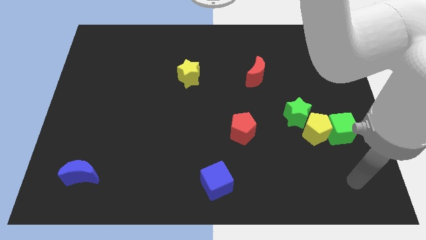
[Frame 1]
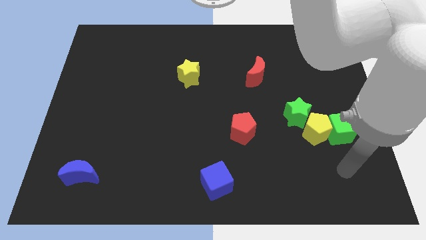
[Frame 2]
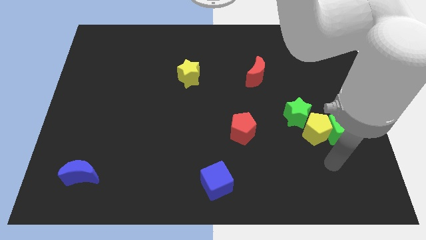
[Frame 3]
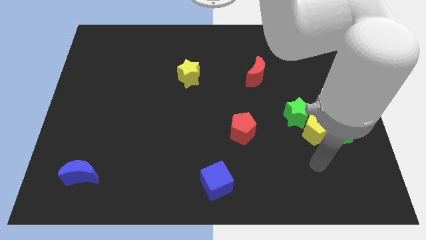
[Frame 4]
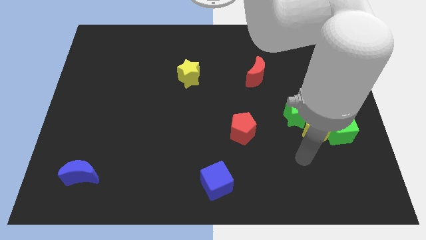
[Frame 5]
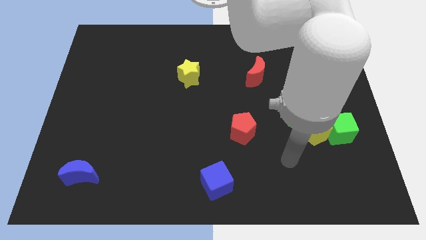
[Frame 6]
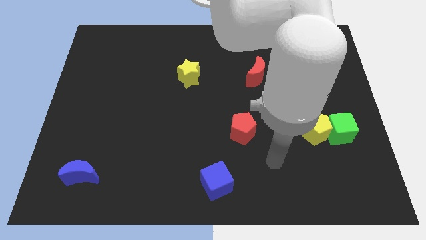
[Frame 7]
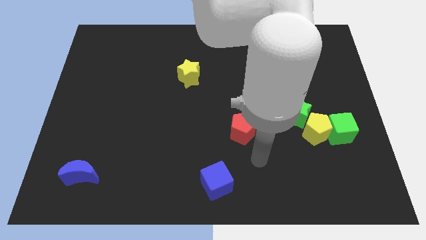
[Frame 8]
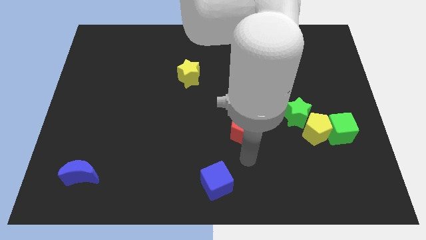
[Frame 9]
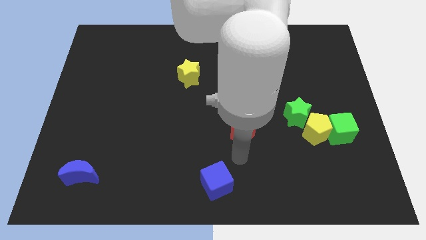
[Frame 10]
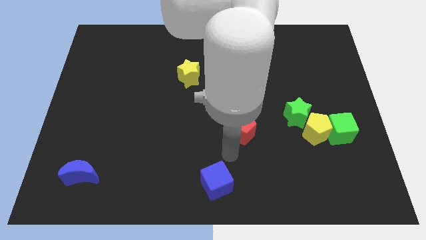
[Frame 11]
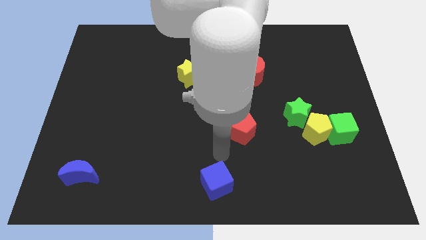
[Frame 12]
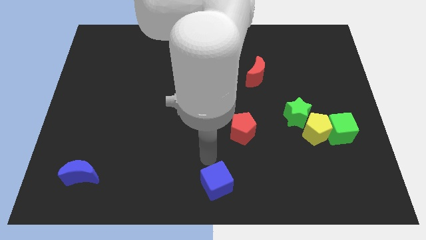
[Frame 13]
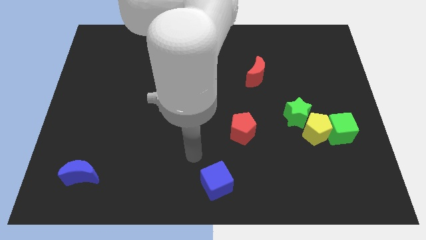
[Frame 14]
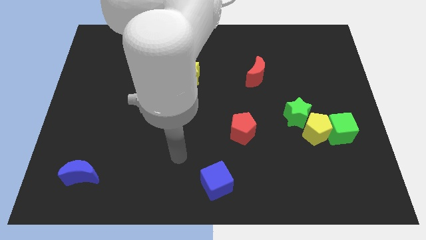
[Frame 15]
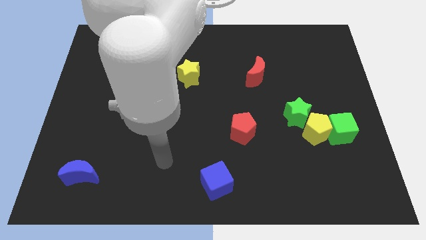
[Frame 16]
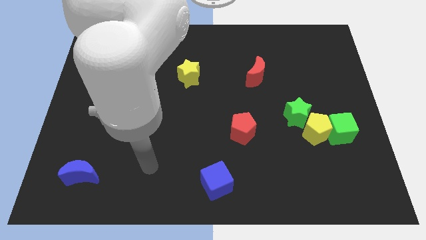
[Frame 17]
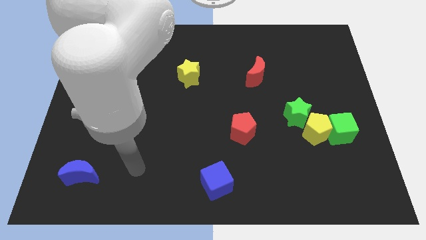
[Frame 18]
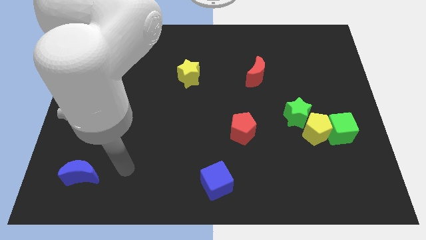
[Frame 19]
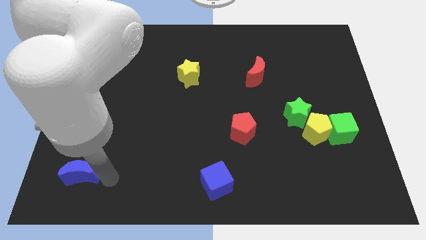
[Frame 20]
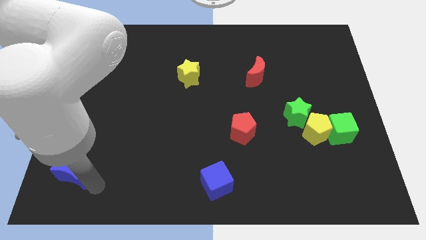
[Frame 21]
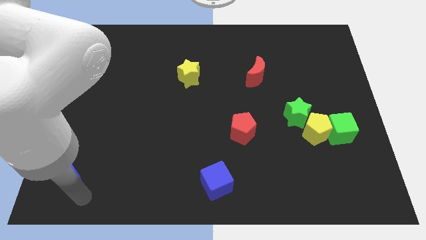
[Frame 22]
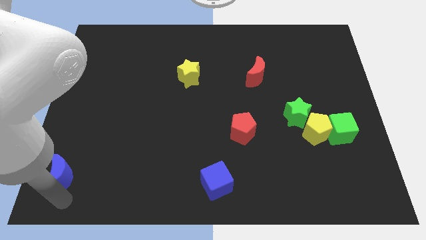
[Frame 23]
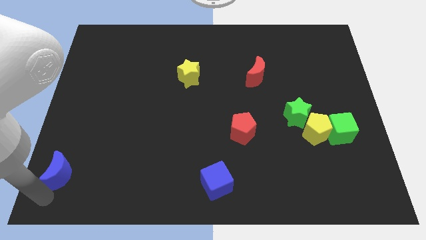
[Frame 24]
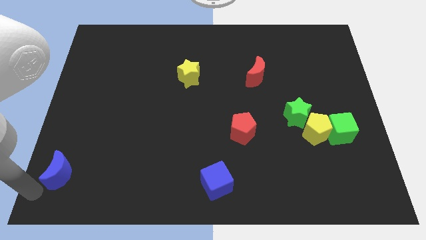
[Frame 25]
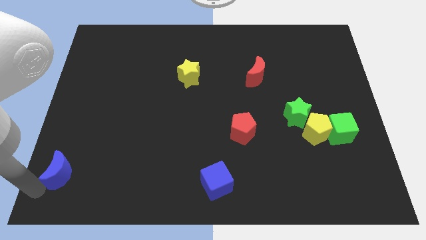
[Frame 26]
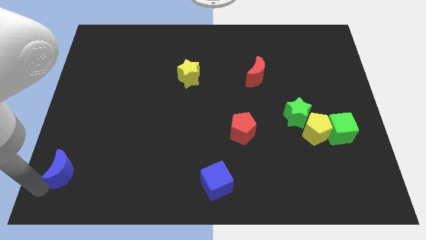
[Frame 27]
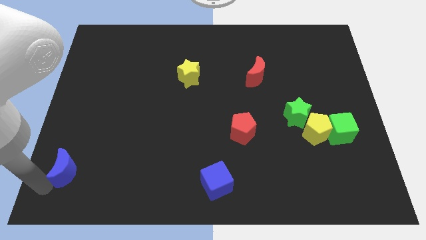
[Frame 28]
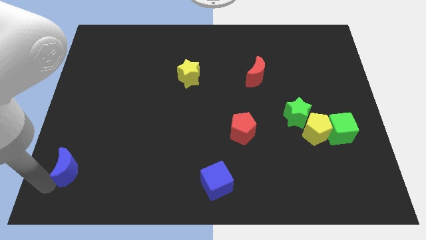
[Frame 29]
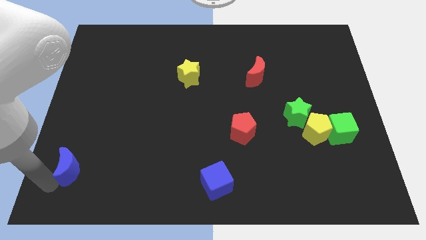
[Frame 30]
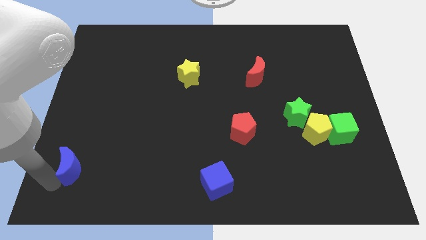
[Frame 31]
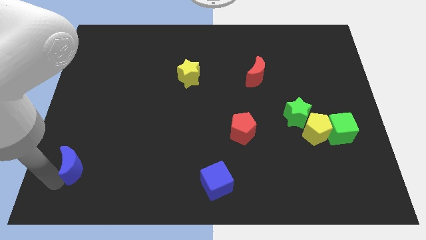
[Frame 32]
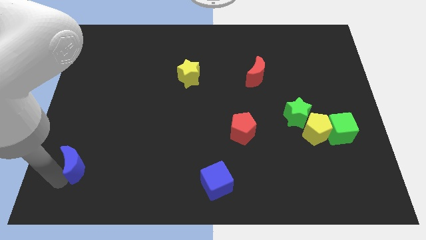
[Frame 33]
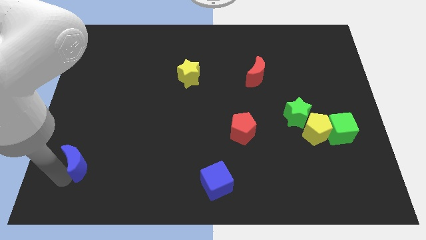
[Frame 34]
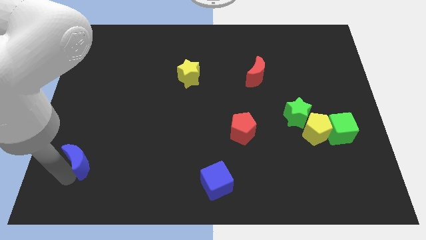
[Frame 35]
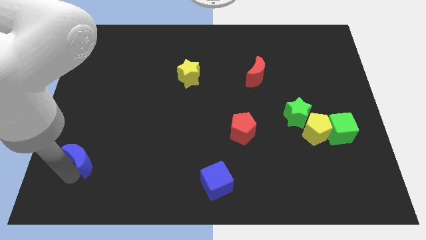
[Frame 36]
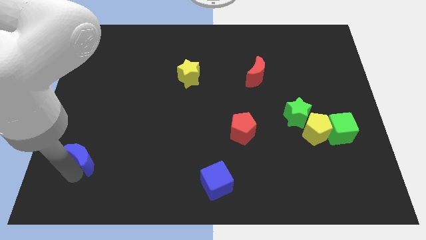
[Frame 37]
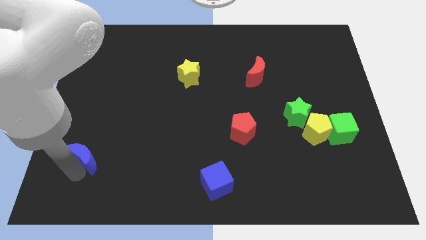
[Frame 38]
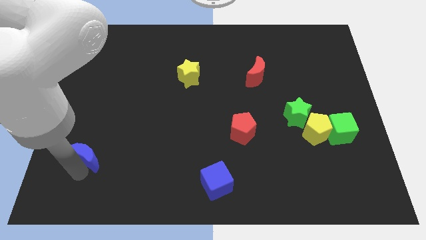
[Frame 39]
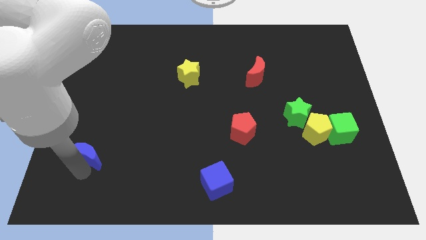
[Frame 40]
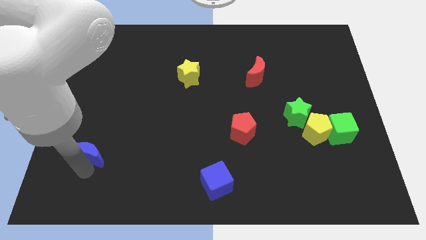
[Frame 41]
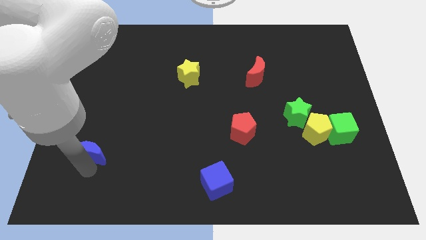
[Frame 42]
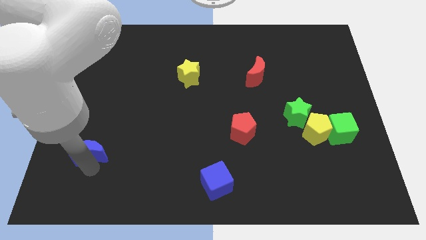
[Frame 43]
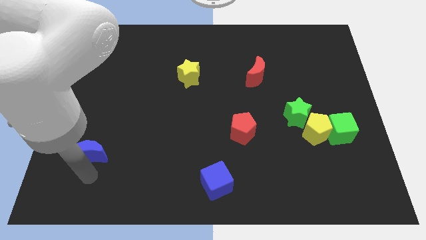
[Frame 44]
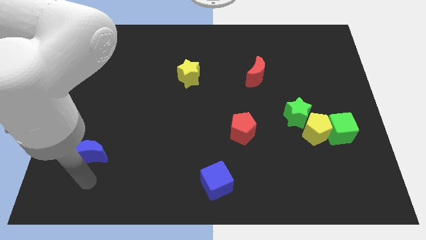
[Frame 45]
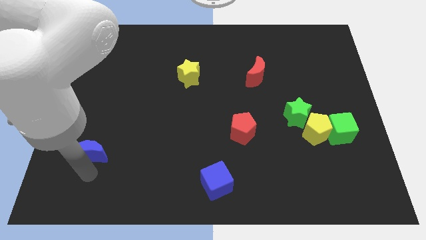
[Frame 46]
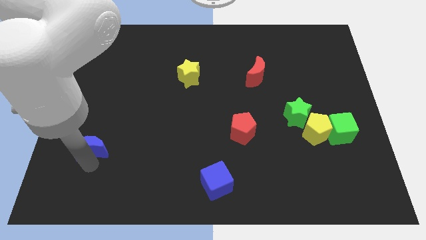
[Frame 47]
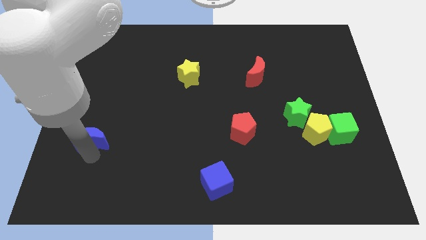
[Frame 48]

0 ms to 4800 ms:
move the blue moon up a little bit

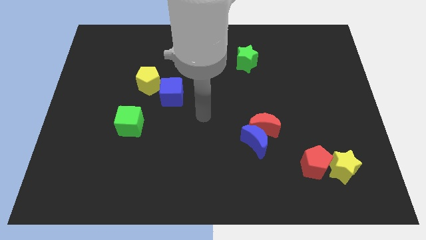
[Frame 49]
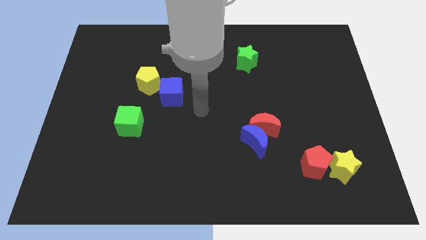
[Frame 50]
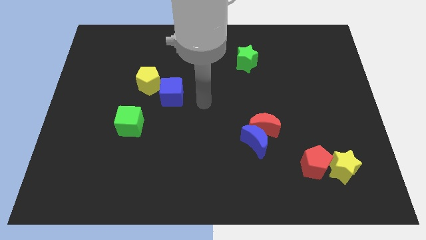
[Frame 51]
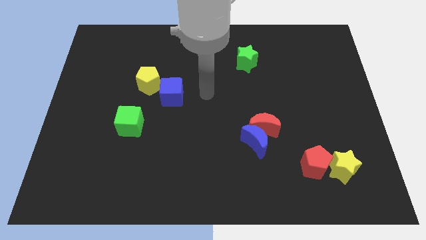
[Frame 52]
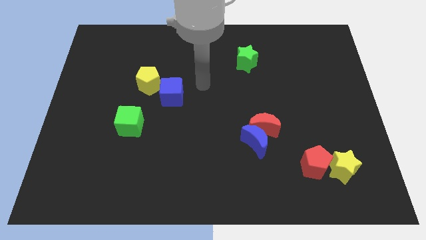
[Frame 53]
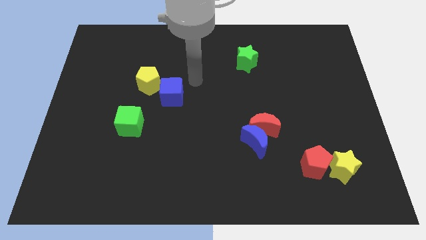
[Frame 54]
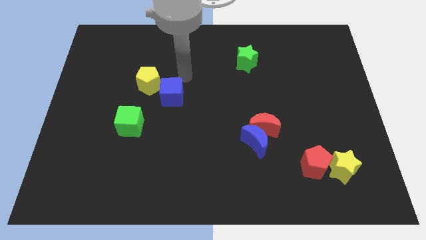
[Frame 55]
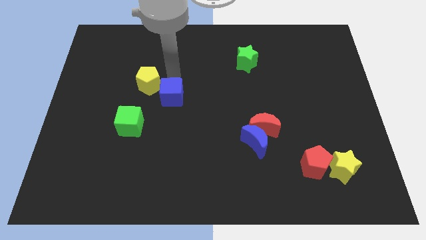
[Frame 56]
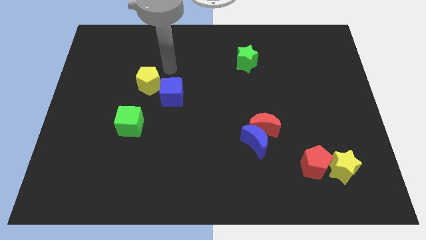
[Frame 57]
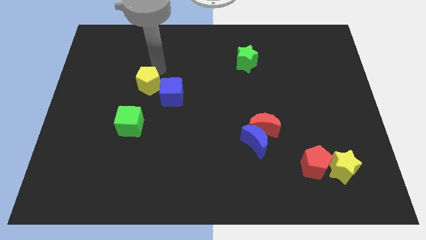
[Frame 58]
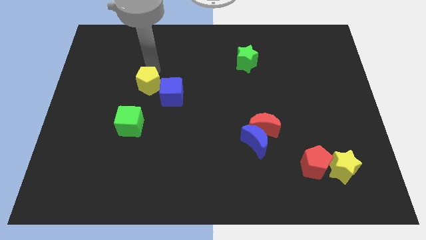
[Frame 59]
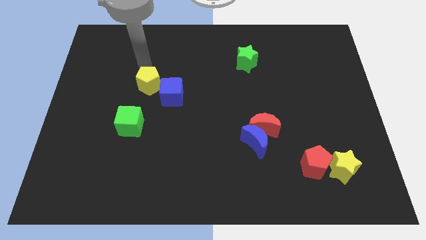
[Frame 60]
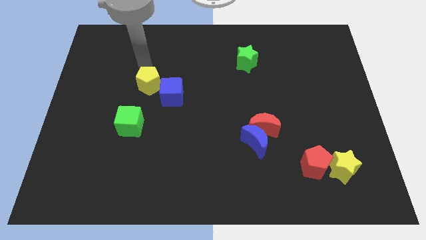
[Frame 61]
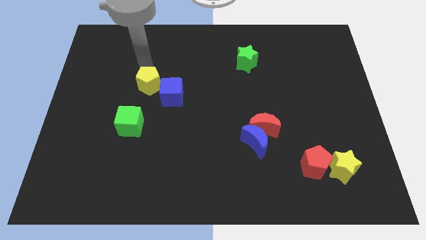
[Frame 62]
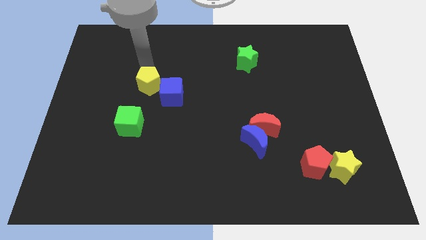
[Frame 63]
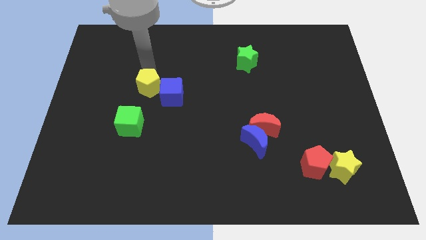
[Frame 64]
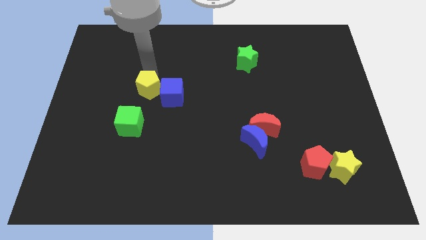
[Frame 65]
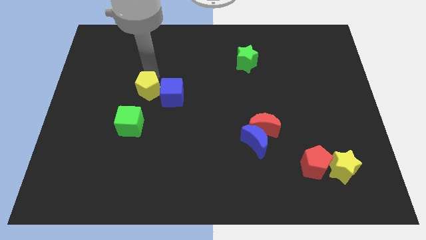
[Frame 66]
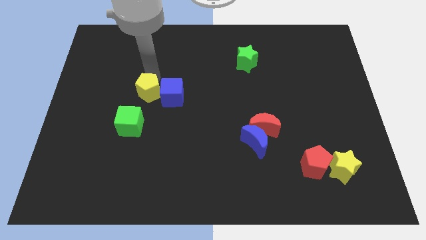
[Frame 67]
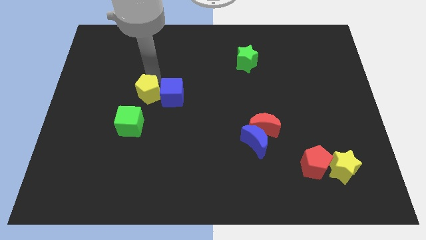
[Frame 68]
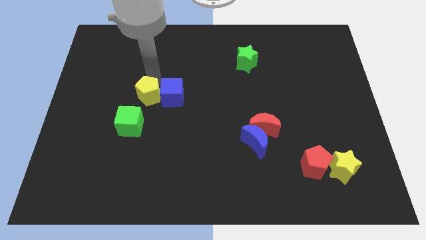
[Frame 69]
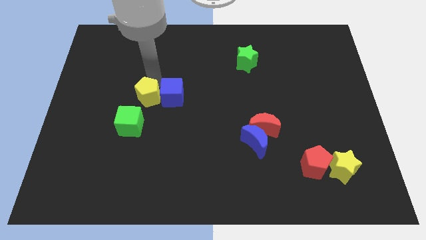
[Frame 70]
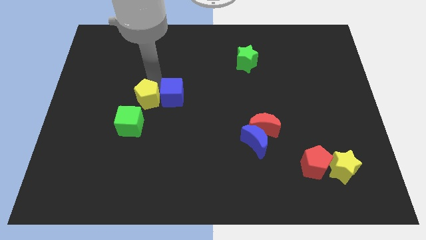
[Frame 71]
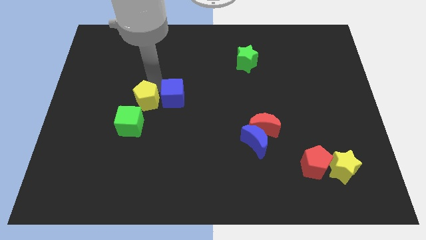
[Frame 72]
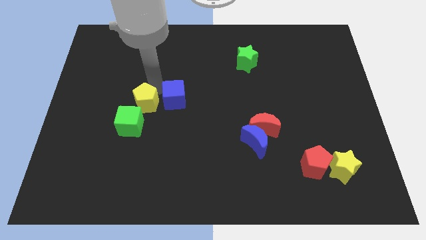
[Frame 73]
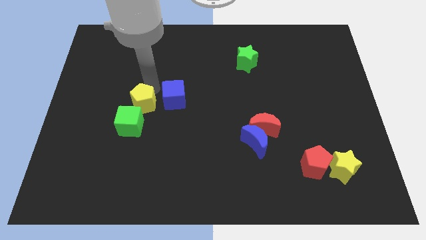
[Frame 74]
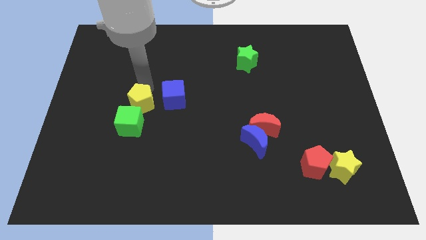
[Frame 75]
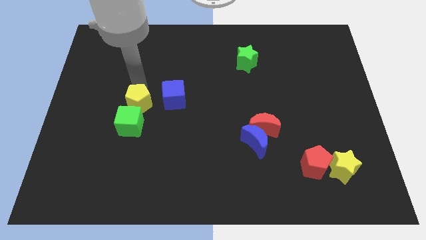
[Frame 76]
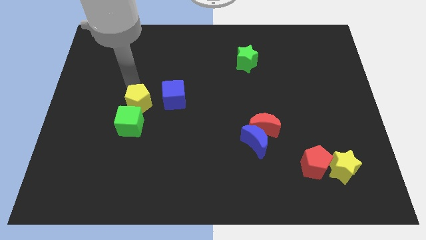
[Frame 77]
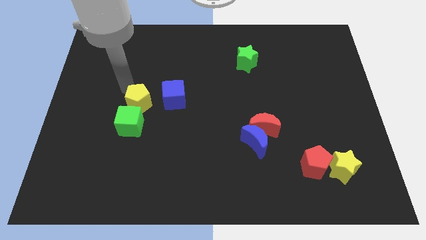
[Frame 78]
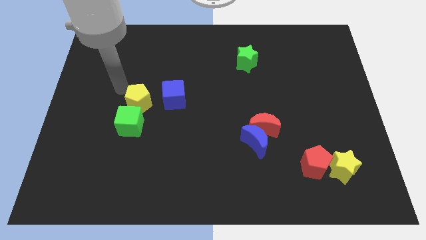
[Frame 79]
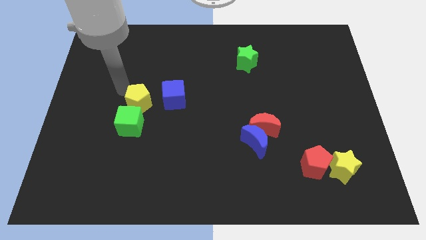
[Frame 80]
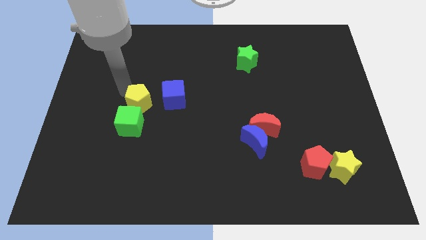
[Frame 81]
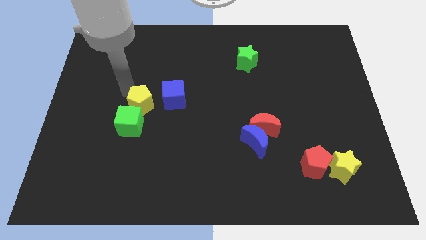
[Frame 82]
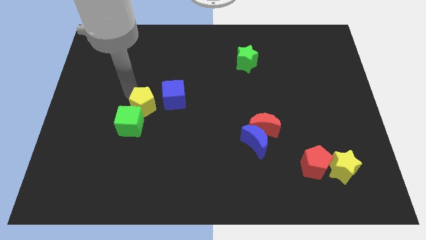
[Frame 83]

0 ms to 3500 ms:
slide the yellow pentagon a little down
